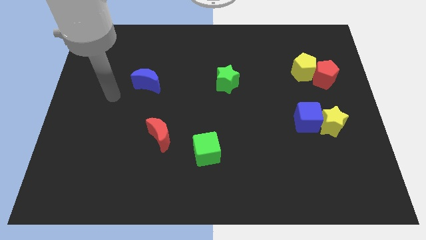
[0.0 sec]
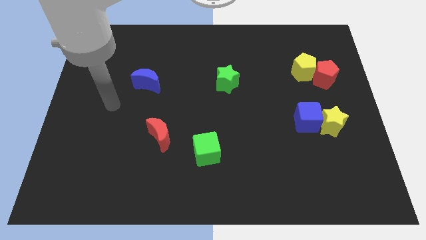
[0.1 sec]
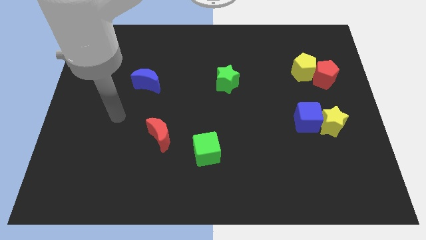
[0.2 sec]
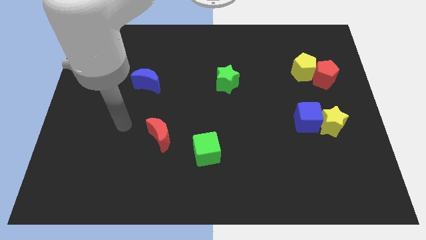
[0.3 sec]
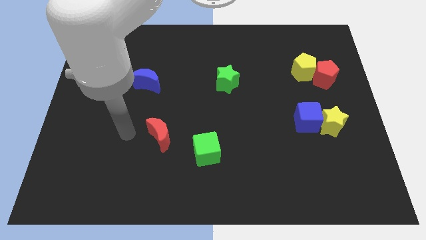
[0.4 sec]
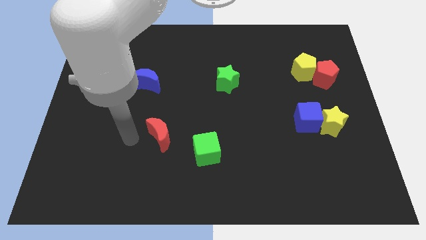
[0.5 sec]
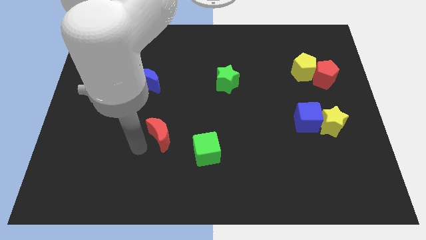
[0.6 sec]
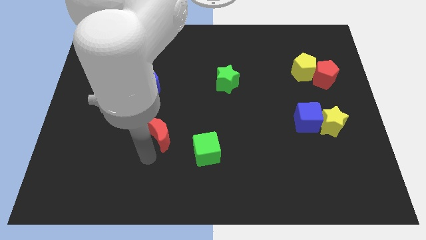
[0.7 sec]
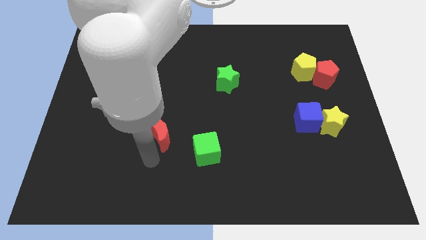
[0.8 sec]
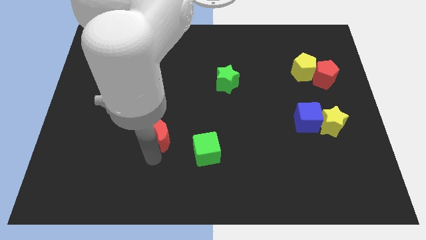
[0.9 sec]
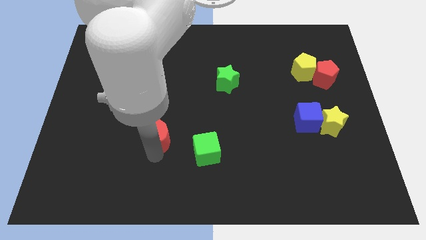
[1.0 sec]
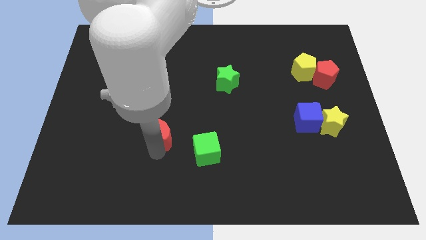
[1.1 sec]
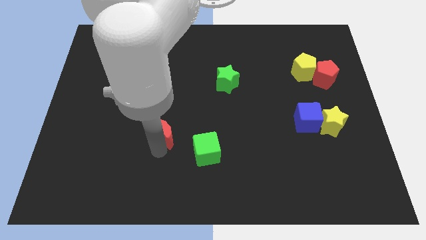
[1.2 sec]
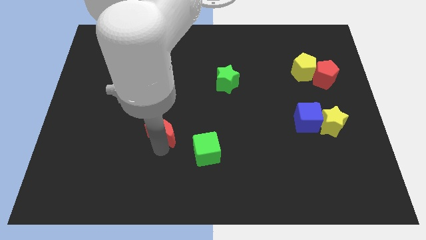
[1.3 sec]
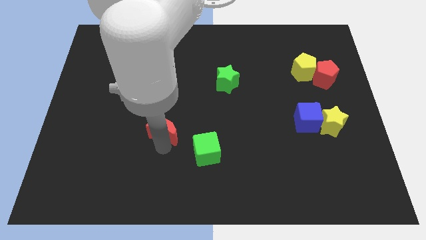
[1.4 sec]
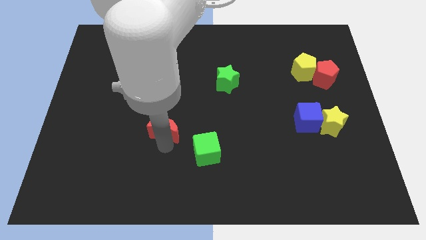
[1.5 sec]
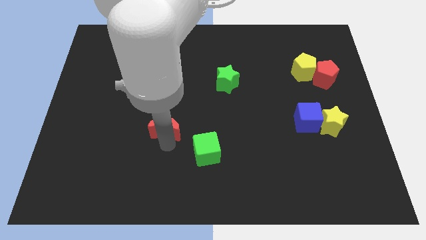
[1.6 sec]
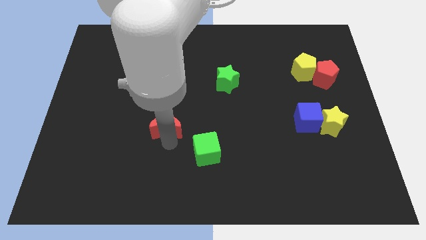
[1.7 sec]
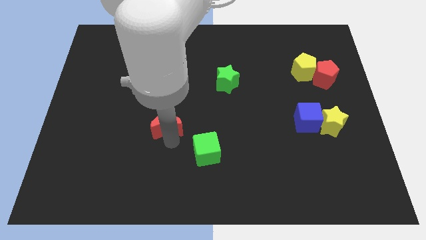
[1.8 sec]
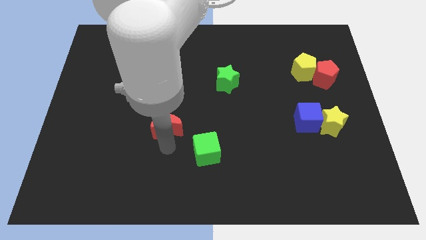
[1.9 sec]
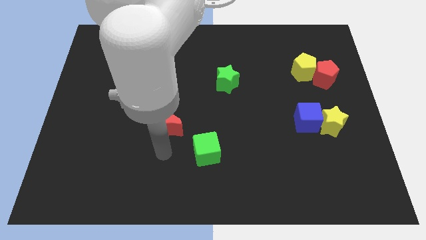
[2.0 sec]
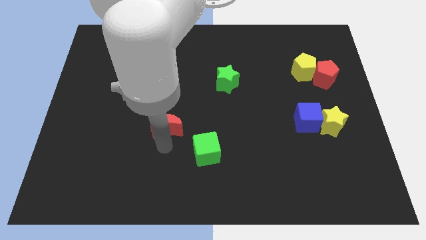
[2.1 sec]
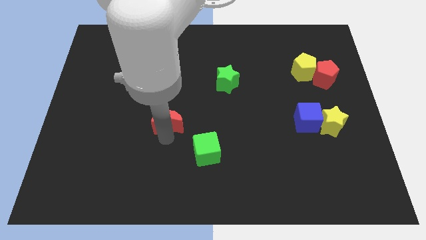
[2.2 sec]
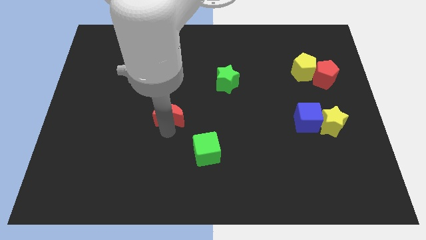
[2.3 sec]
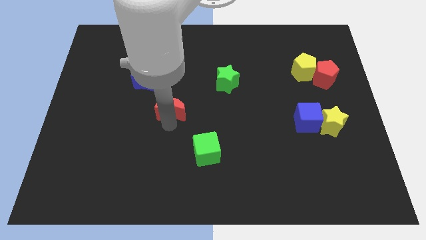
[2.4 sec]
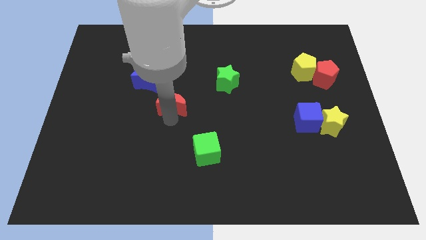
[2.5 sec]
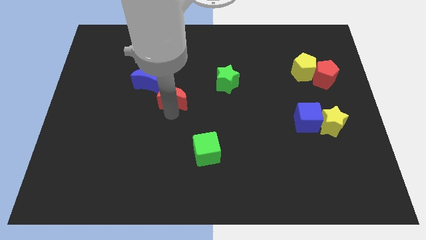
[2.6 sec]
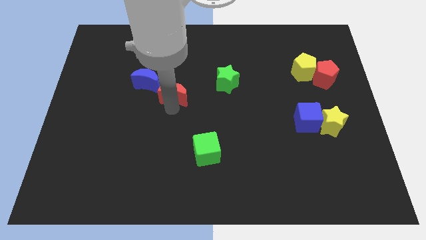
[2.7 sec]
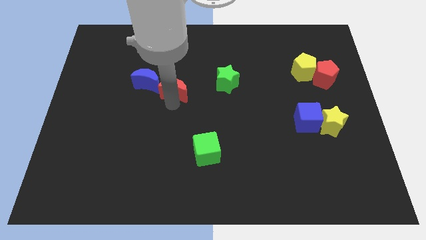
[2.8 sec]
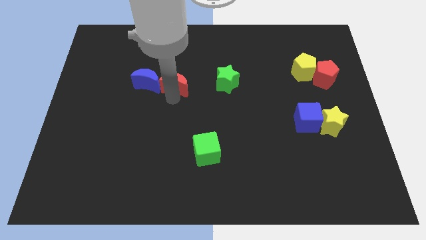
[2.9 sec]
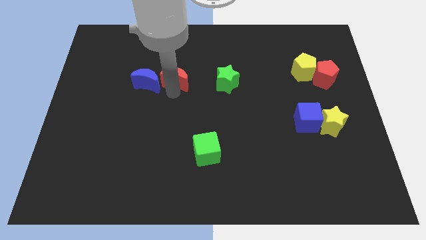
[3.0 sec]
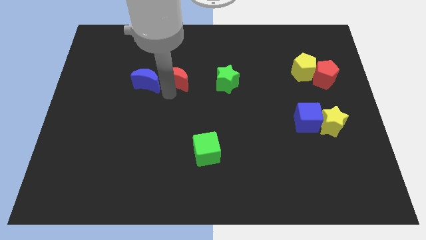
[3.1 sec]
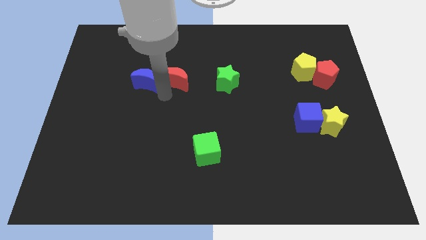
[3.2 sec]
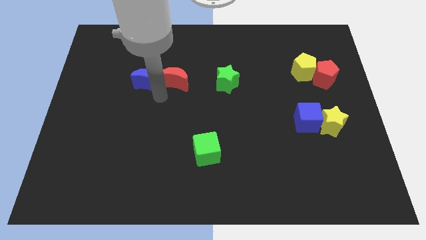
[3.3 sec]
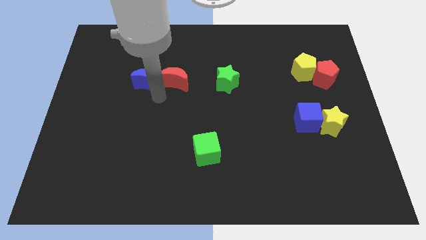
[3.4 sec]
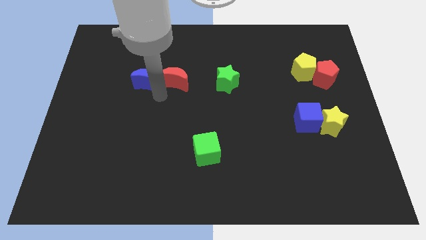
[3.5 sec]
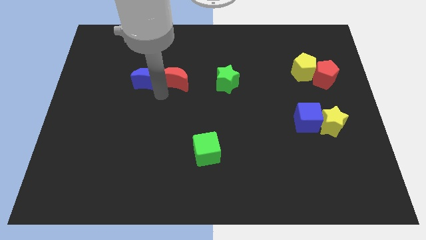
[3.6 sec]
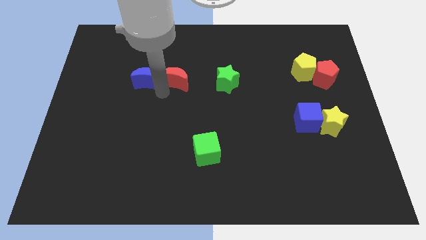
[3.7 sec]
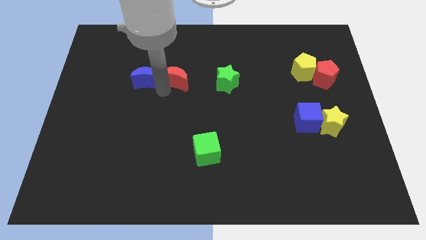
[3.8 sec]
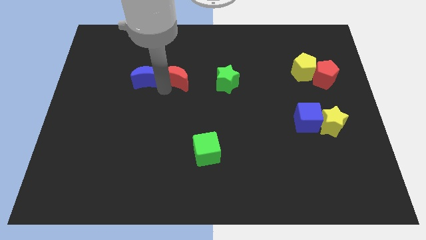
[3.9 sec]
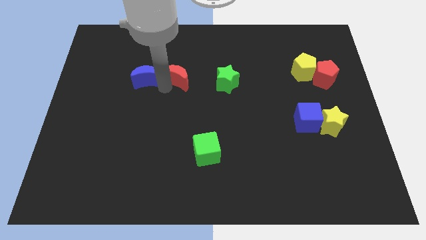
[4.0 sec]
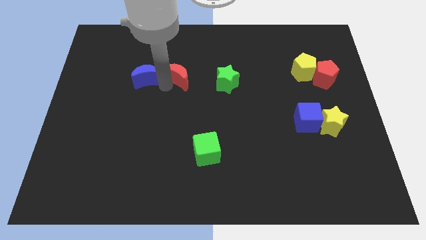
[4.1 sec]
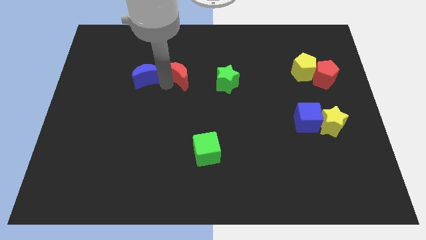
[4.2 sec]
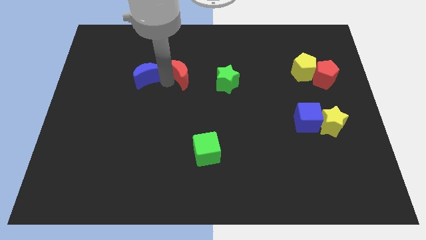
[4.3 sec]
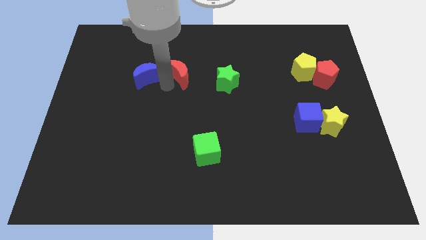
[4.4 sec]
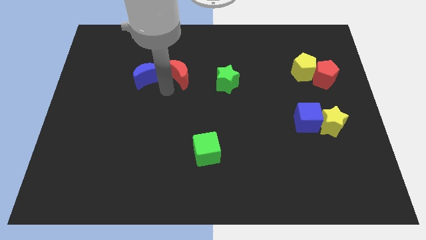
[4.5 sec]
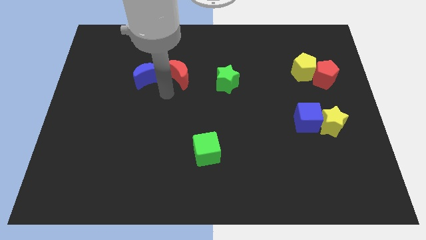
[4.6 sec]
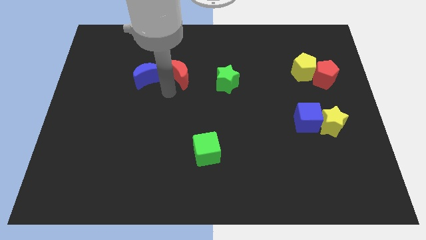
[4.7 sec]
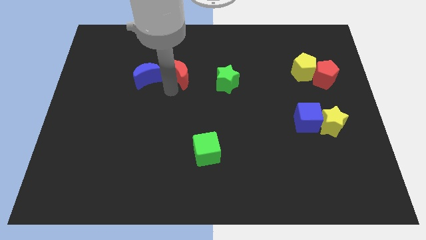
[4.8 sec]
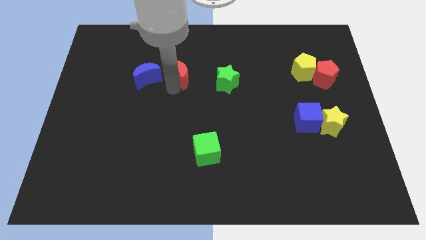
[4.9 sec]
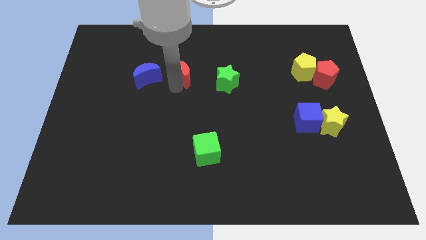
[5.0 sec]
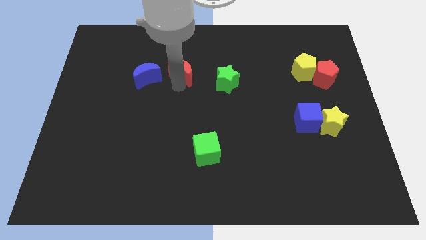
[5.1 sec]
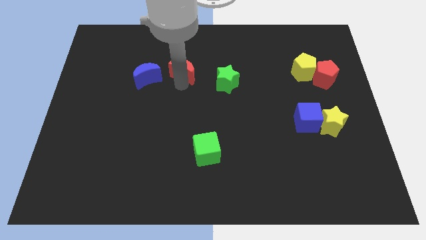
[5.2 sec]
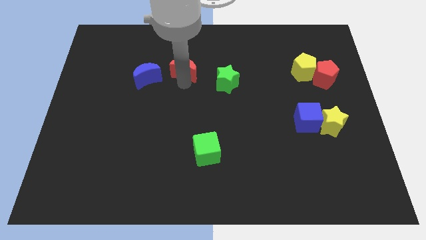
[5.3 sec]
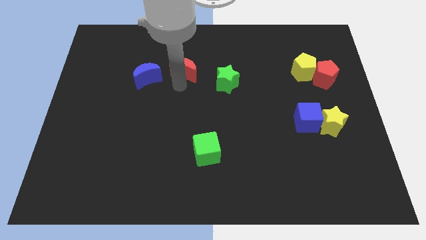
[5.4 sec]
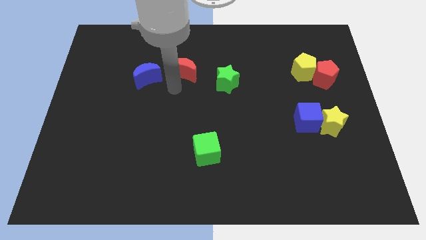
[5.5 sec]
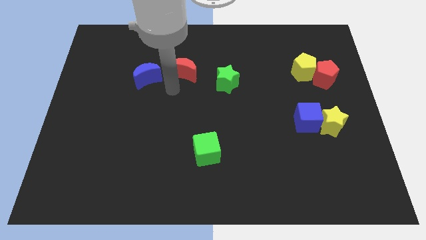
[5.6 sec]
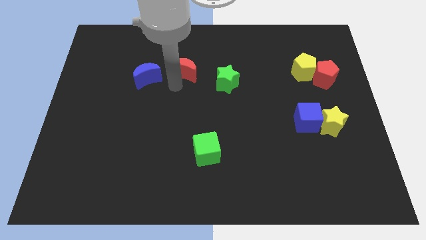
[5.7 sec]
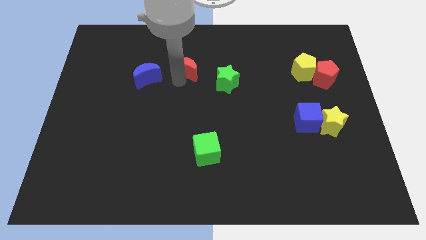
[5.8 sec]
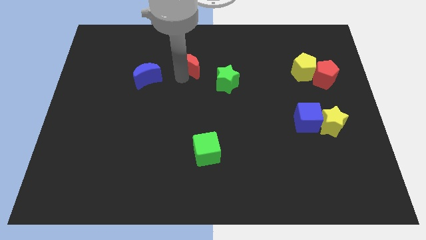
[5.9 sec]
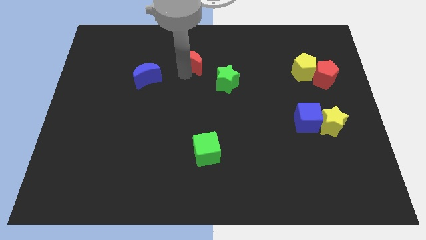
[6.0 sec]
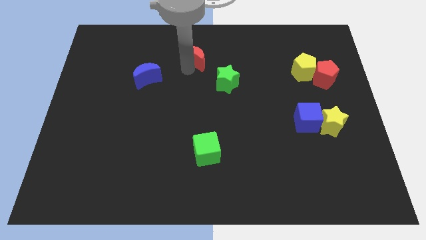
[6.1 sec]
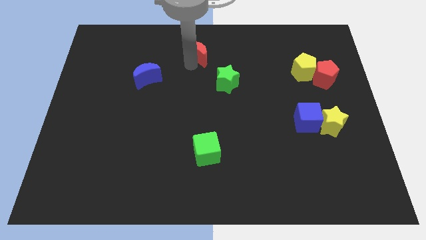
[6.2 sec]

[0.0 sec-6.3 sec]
slide the red moon to the top side

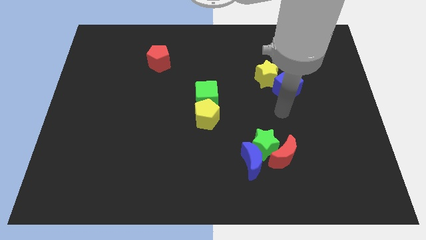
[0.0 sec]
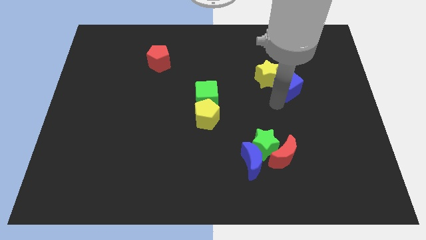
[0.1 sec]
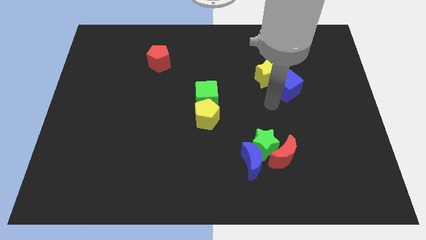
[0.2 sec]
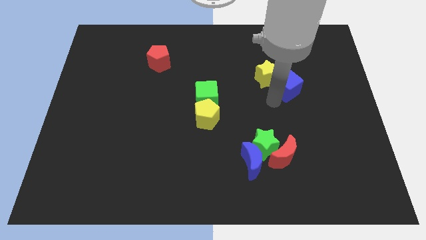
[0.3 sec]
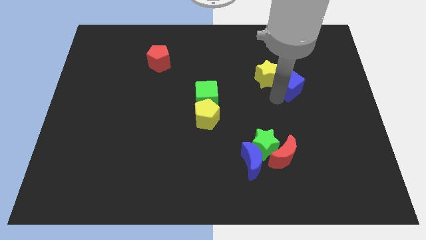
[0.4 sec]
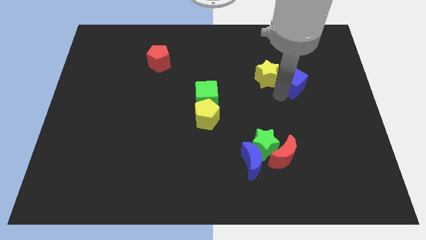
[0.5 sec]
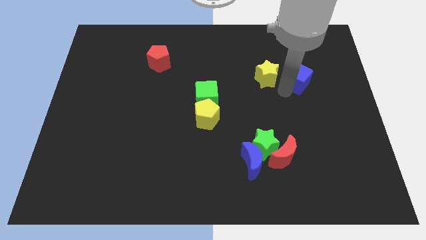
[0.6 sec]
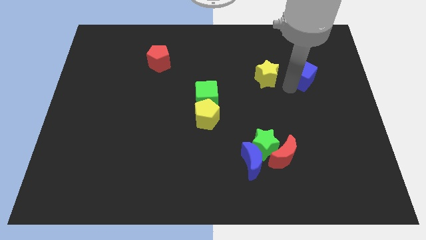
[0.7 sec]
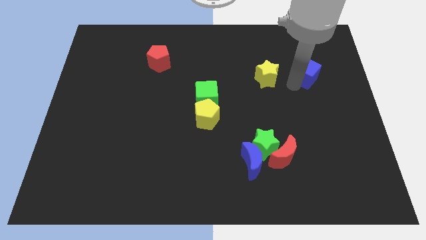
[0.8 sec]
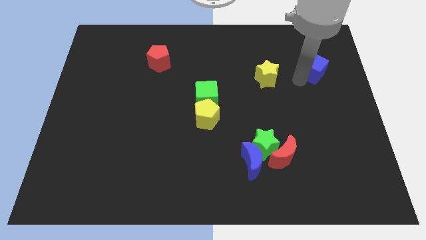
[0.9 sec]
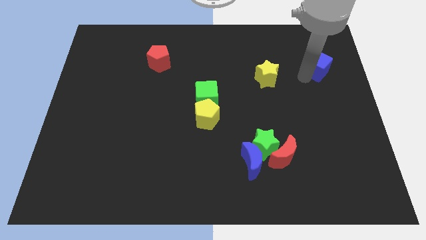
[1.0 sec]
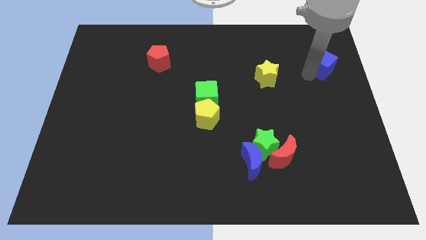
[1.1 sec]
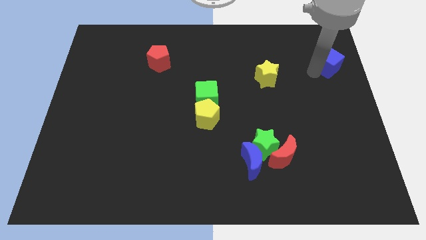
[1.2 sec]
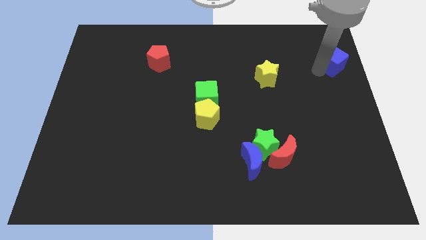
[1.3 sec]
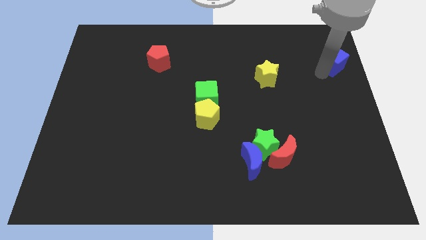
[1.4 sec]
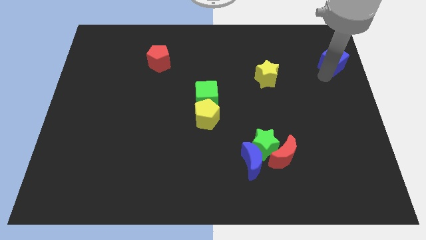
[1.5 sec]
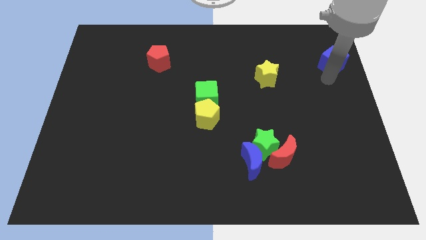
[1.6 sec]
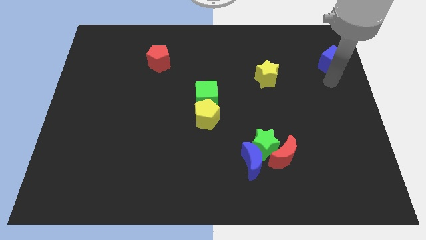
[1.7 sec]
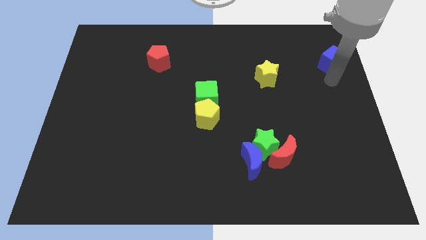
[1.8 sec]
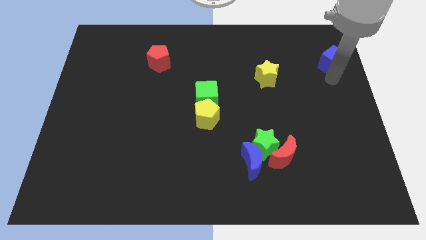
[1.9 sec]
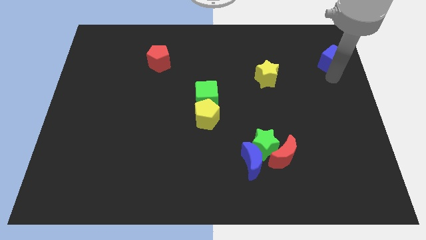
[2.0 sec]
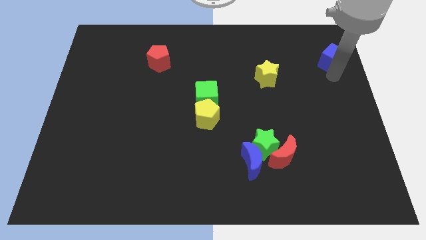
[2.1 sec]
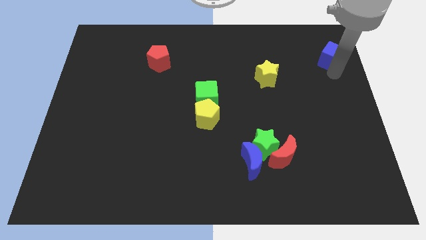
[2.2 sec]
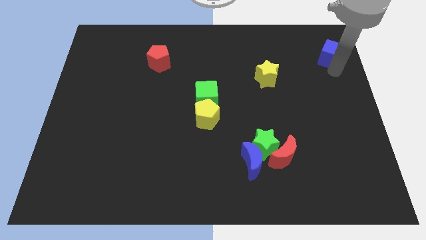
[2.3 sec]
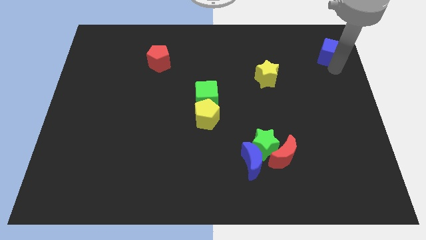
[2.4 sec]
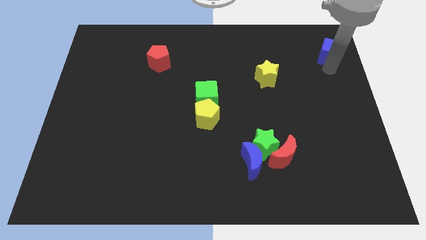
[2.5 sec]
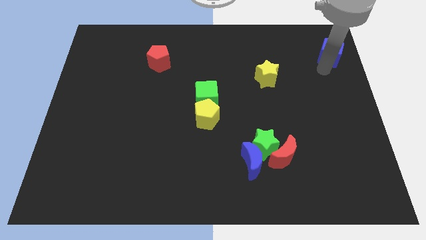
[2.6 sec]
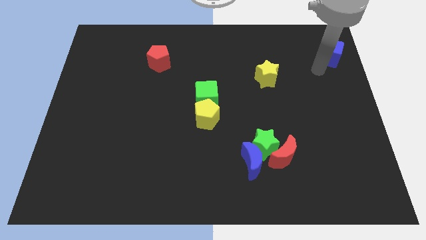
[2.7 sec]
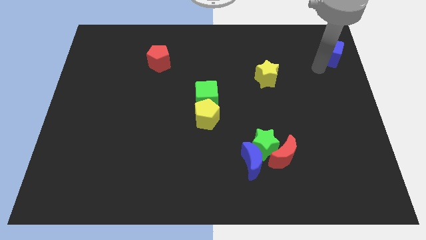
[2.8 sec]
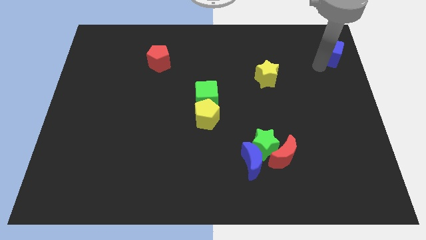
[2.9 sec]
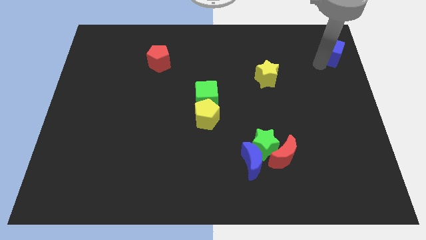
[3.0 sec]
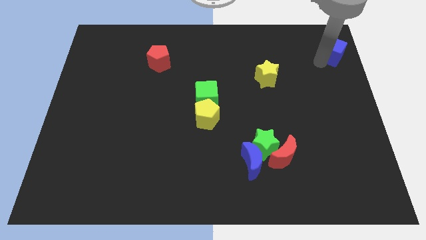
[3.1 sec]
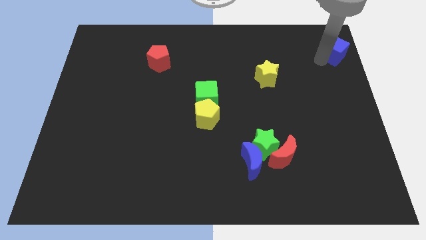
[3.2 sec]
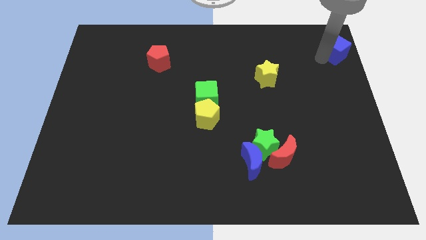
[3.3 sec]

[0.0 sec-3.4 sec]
put the blue cube to the top right of the board
